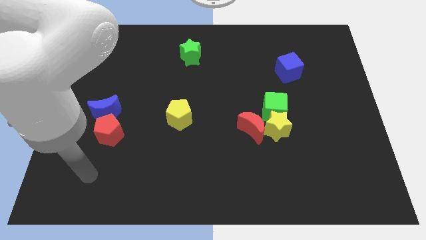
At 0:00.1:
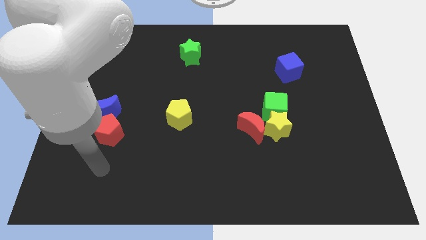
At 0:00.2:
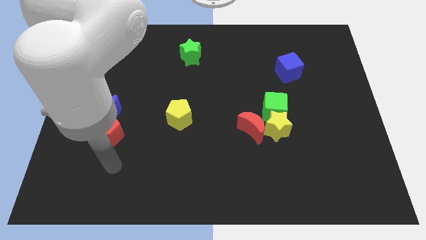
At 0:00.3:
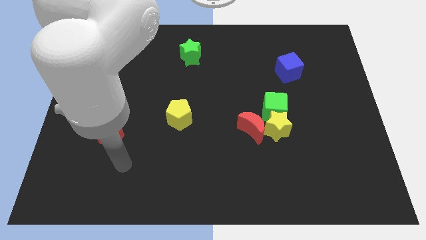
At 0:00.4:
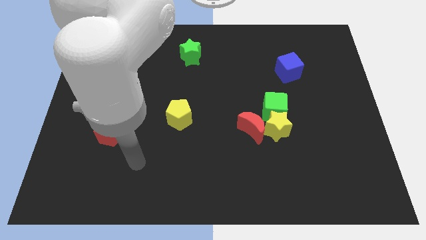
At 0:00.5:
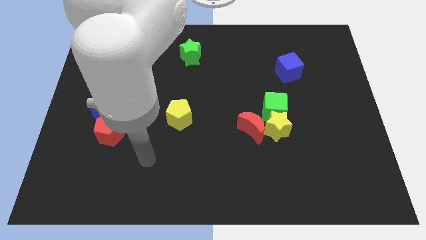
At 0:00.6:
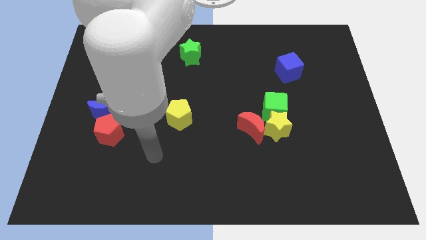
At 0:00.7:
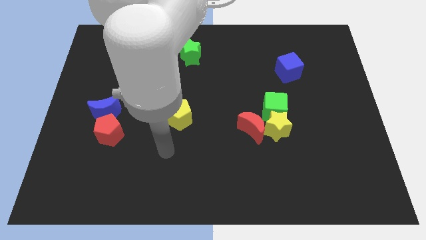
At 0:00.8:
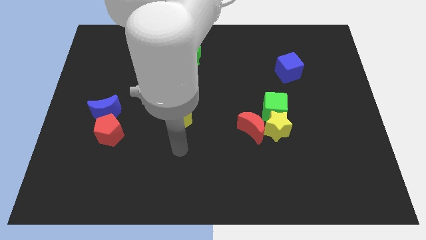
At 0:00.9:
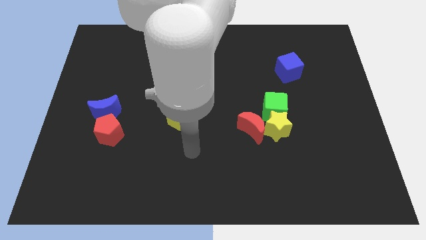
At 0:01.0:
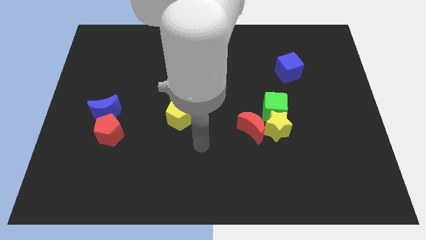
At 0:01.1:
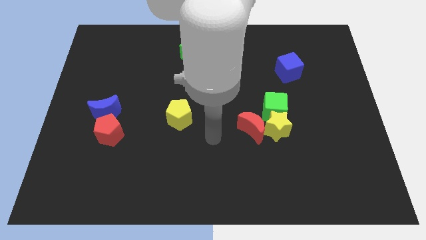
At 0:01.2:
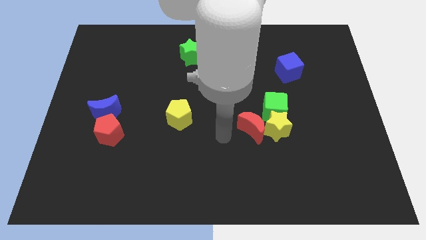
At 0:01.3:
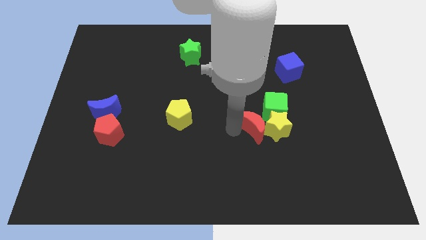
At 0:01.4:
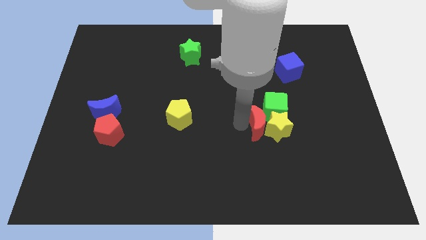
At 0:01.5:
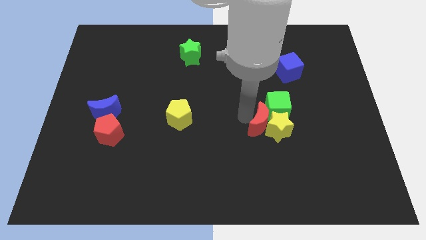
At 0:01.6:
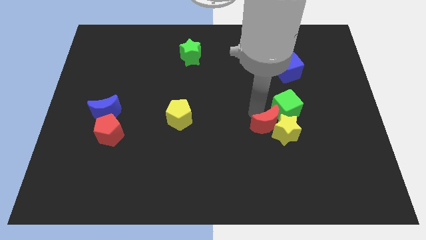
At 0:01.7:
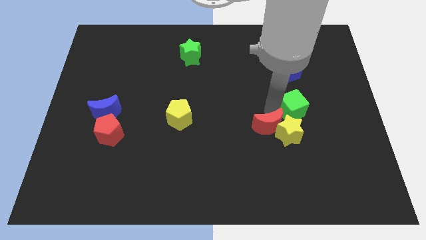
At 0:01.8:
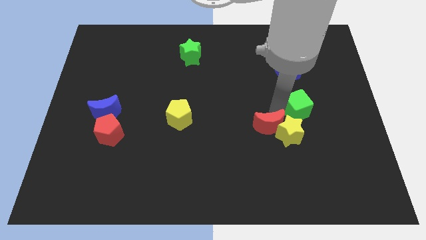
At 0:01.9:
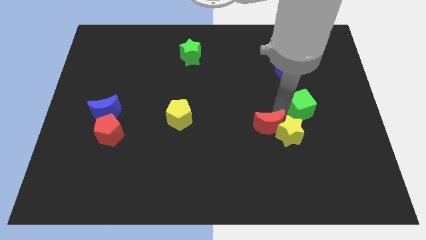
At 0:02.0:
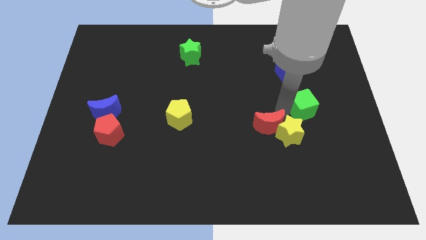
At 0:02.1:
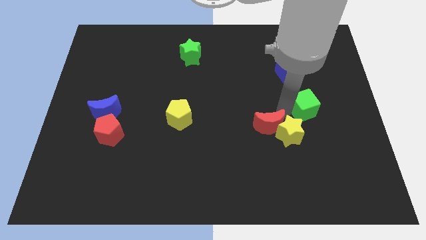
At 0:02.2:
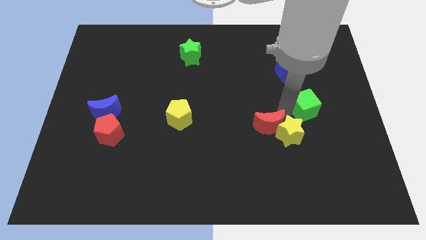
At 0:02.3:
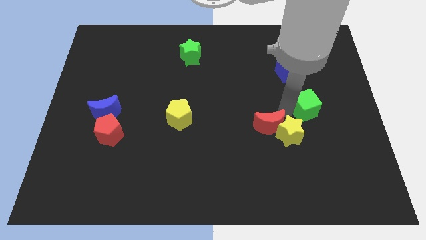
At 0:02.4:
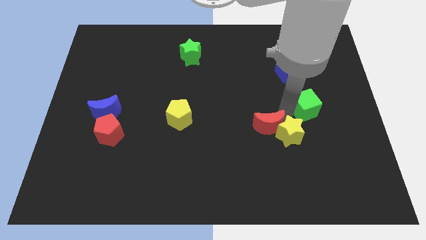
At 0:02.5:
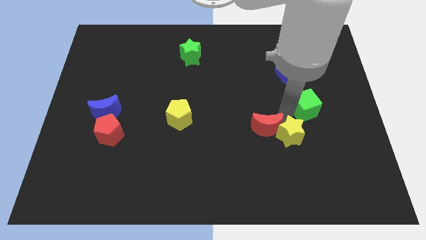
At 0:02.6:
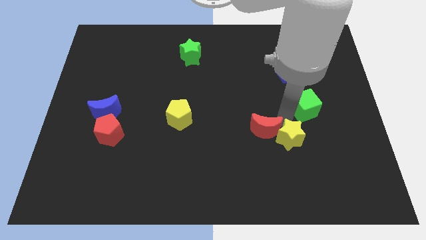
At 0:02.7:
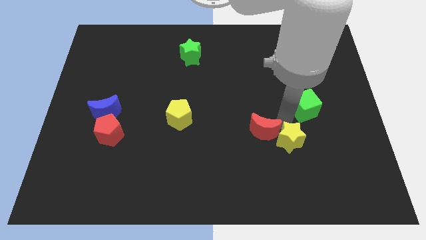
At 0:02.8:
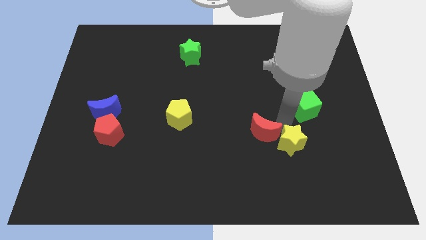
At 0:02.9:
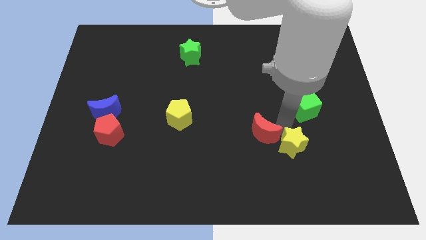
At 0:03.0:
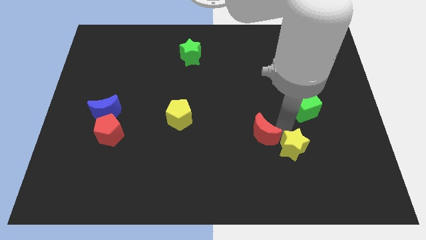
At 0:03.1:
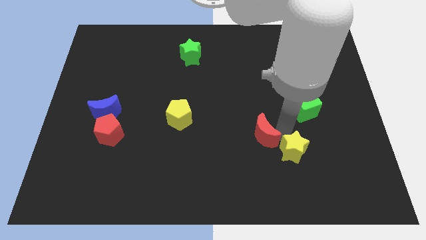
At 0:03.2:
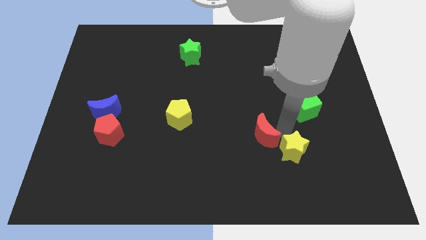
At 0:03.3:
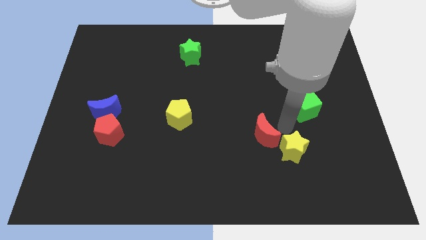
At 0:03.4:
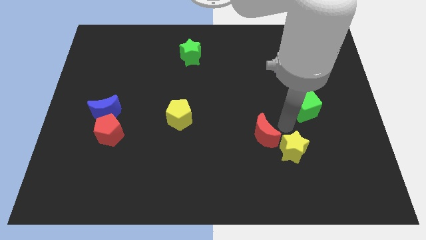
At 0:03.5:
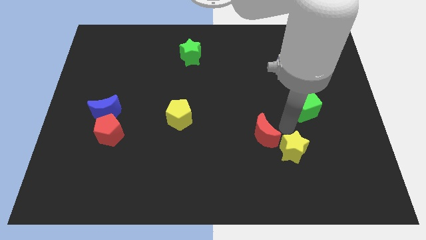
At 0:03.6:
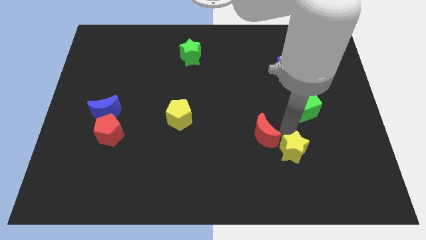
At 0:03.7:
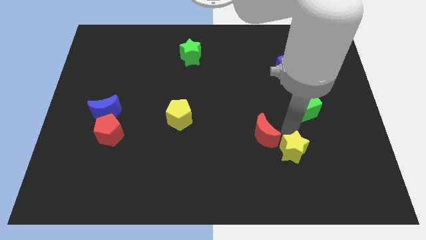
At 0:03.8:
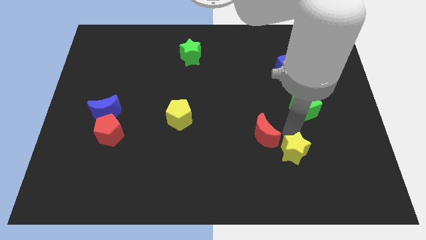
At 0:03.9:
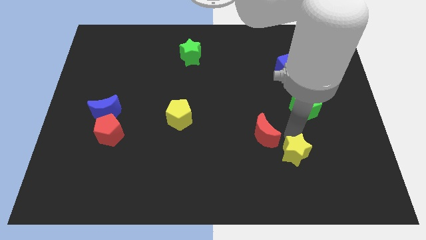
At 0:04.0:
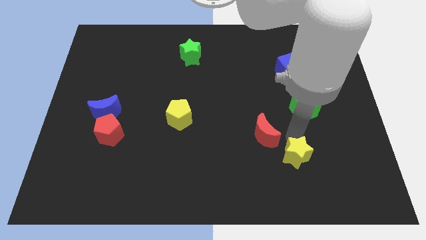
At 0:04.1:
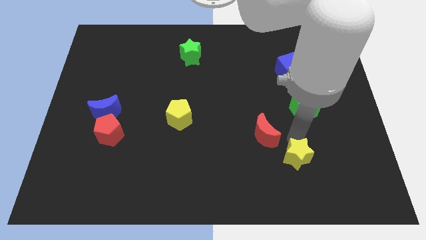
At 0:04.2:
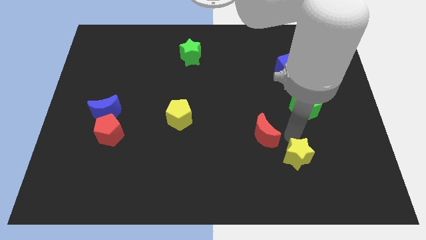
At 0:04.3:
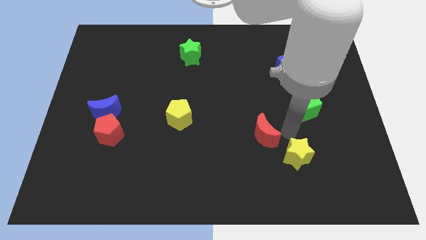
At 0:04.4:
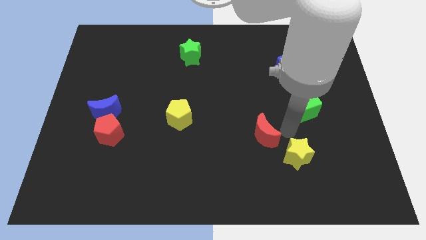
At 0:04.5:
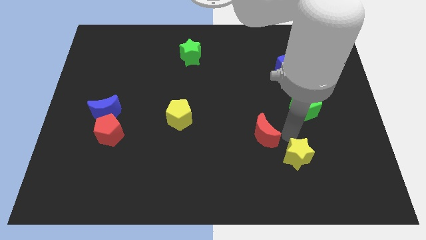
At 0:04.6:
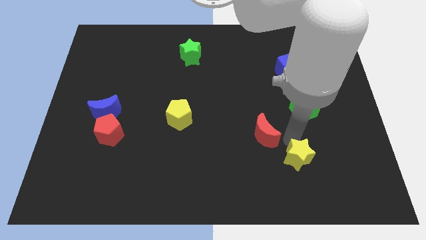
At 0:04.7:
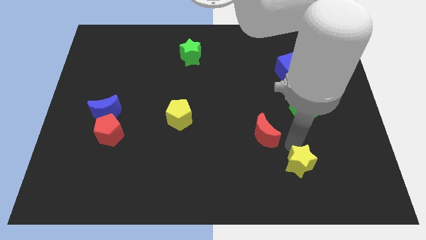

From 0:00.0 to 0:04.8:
separate the yellow star from the red moon and green cube

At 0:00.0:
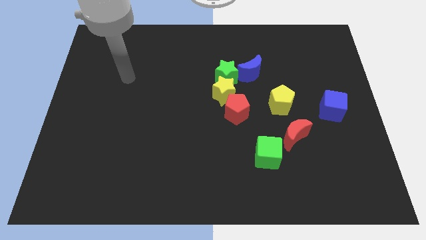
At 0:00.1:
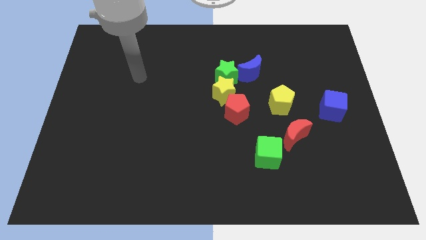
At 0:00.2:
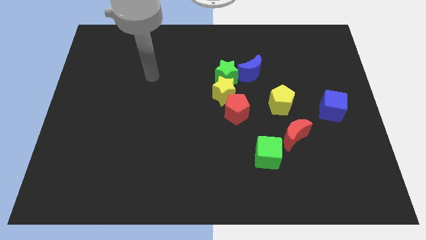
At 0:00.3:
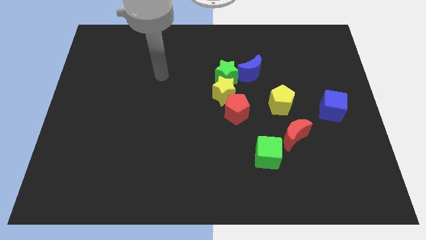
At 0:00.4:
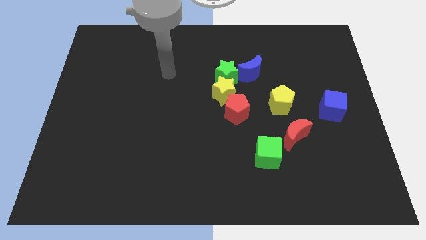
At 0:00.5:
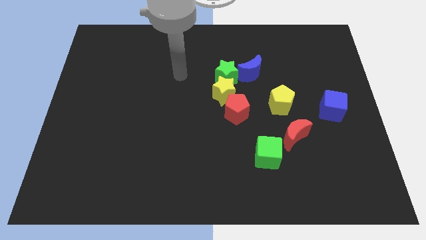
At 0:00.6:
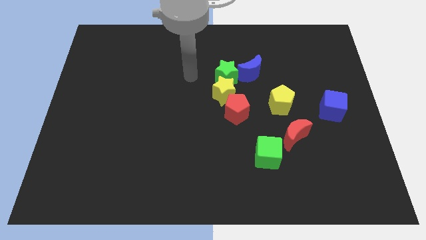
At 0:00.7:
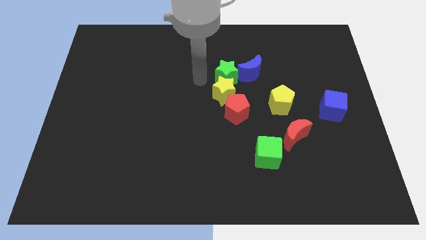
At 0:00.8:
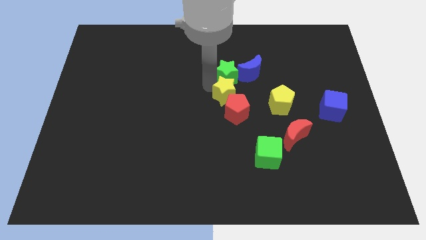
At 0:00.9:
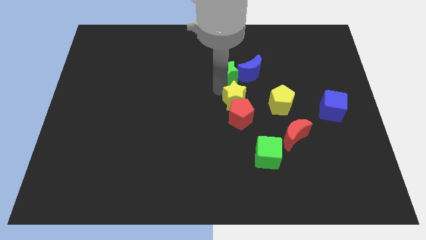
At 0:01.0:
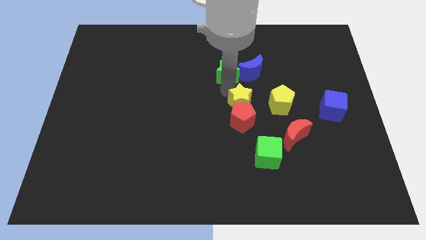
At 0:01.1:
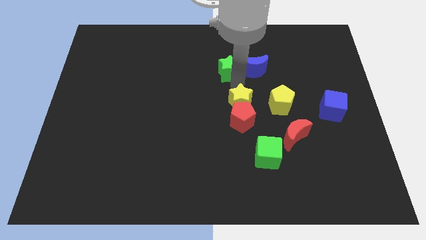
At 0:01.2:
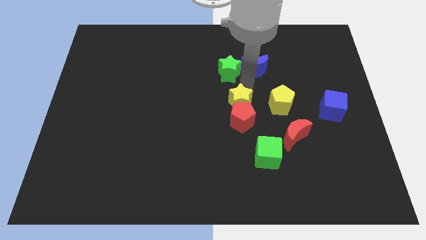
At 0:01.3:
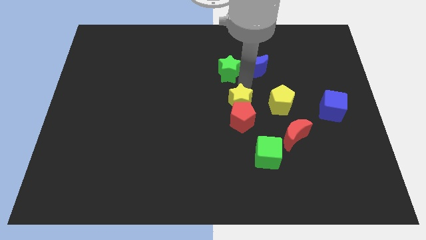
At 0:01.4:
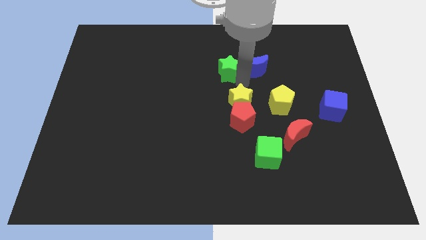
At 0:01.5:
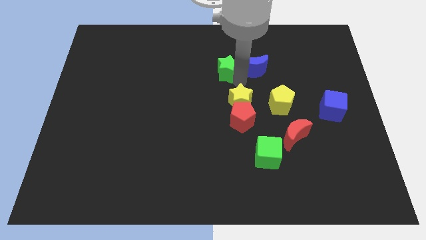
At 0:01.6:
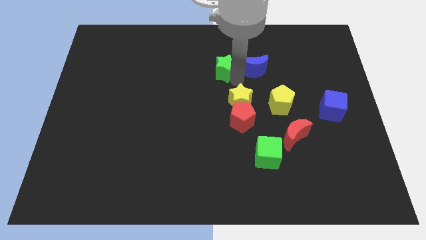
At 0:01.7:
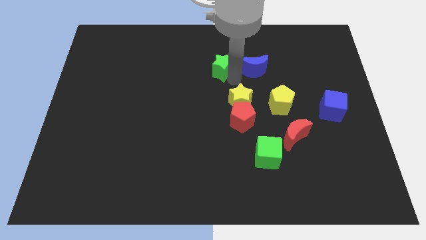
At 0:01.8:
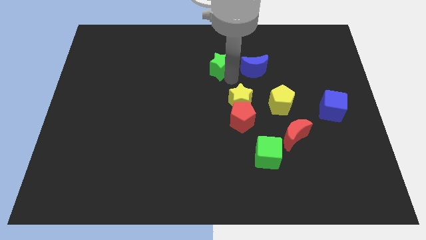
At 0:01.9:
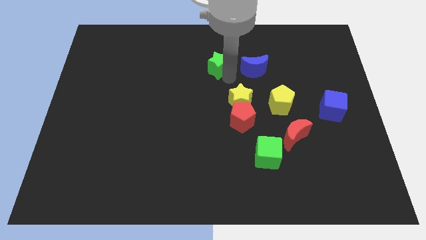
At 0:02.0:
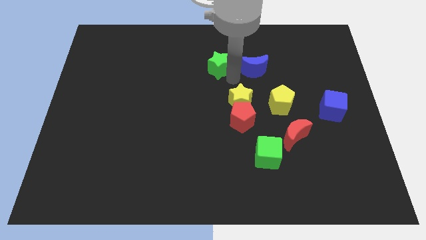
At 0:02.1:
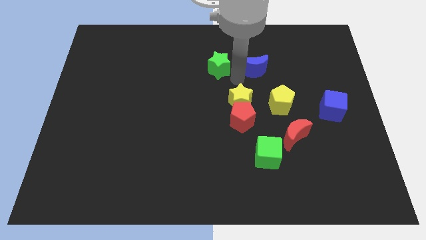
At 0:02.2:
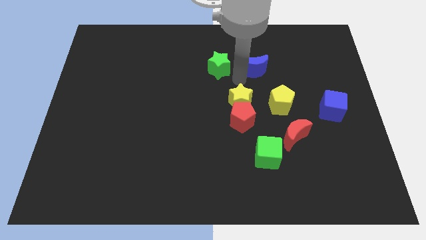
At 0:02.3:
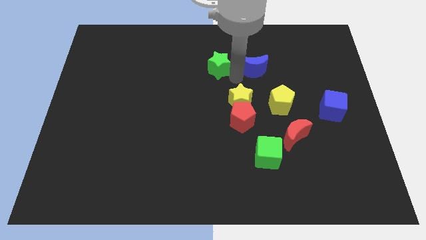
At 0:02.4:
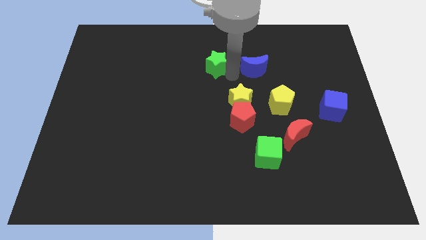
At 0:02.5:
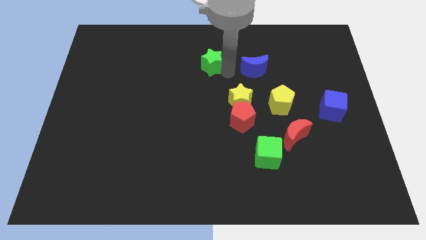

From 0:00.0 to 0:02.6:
separate the green star from the yellow star and blue moon

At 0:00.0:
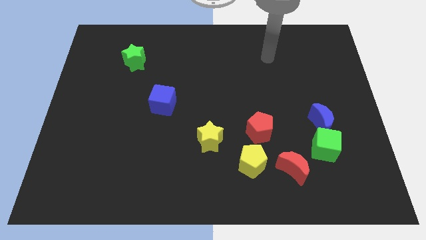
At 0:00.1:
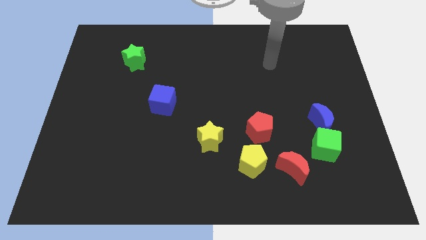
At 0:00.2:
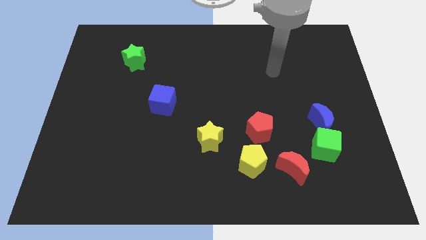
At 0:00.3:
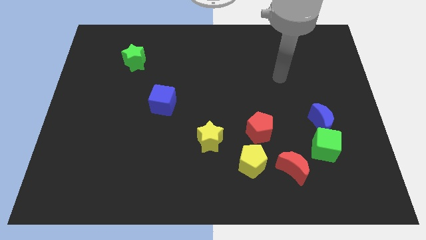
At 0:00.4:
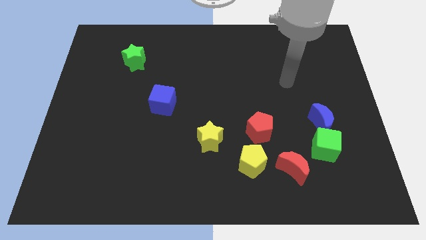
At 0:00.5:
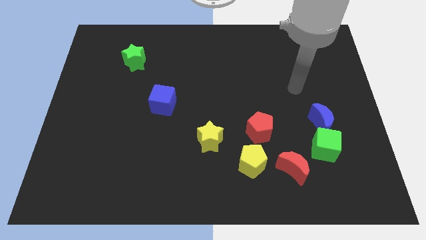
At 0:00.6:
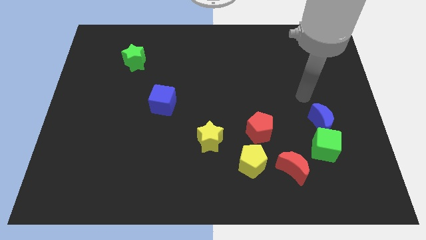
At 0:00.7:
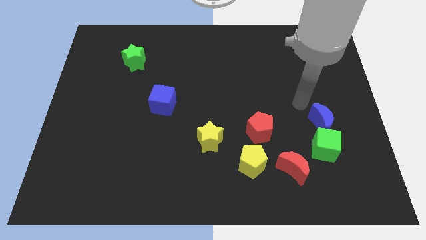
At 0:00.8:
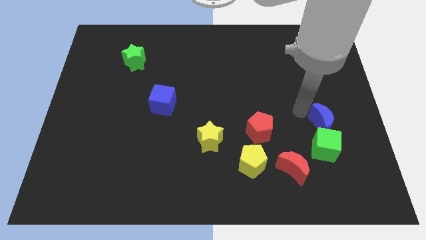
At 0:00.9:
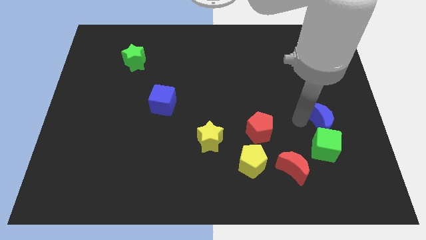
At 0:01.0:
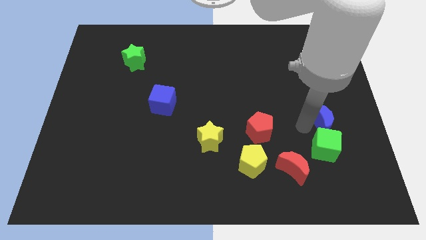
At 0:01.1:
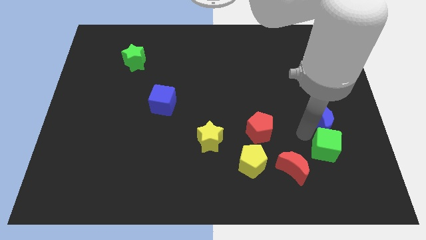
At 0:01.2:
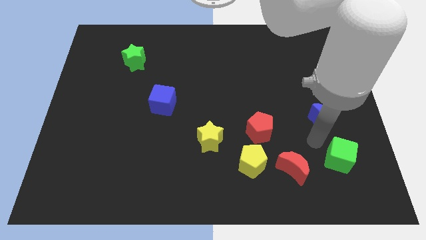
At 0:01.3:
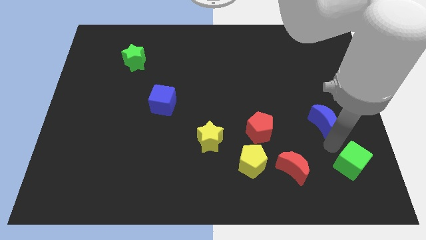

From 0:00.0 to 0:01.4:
separate the blue moon from the green cube

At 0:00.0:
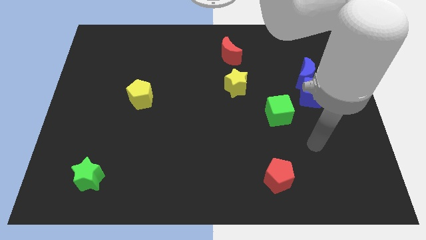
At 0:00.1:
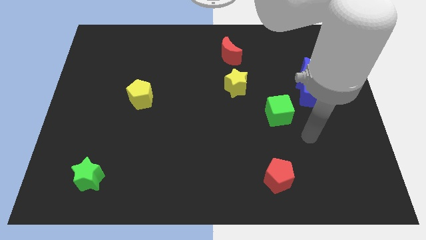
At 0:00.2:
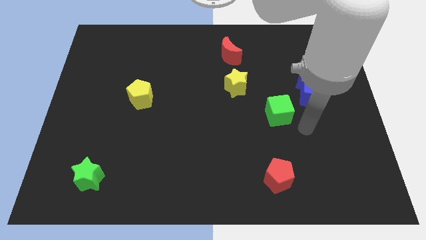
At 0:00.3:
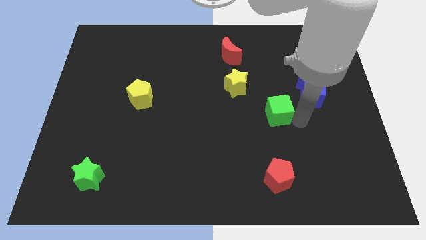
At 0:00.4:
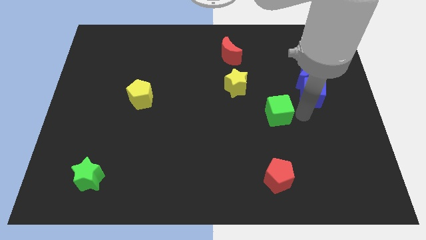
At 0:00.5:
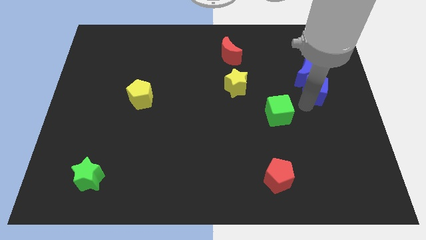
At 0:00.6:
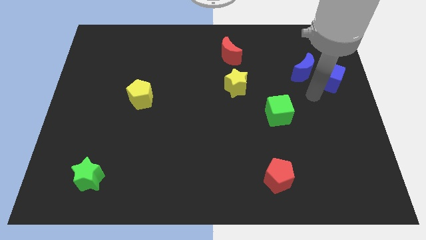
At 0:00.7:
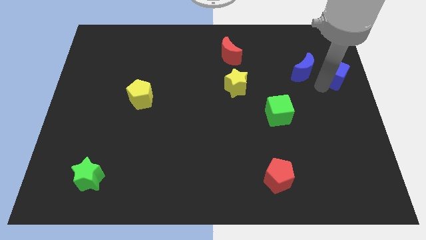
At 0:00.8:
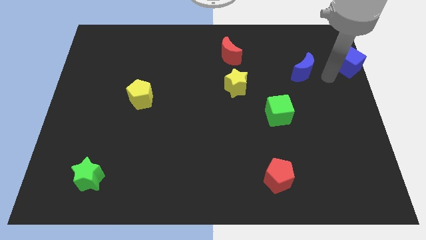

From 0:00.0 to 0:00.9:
separate the blue moon from the blue cube
